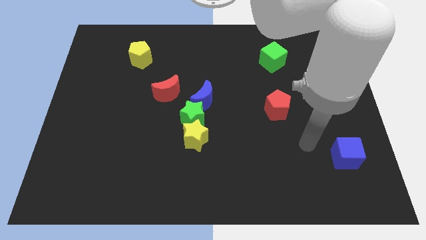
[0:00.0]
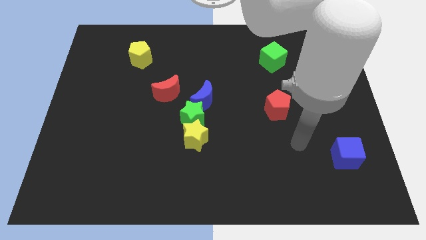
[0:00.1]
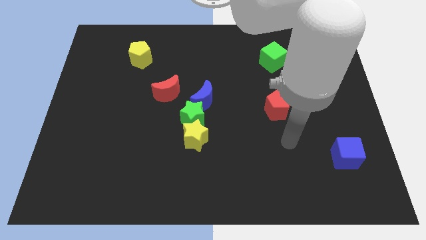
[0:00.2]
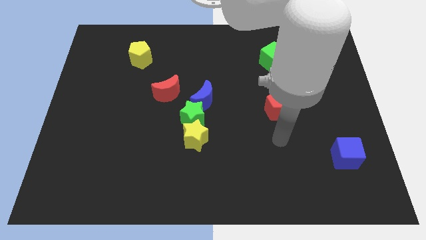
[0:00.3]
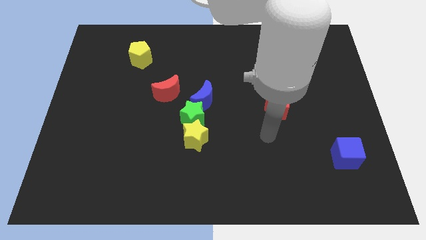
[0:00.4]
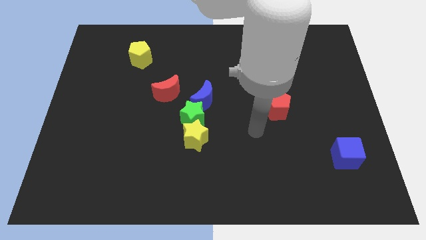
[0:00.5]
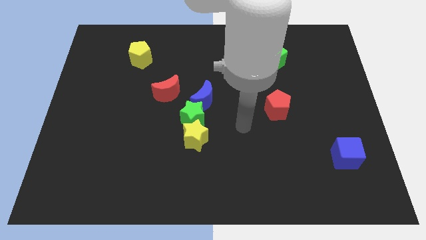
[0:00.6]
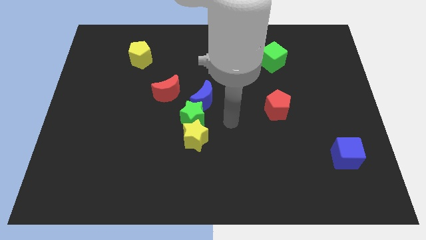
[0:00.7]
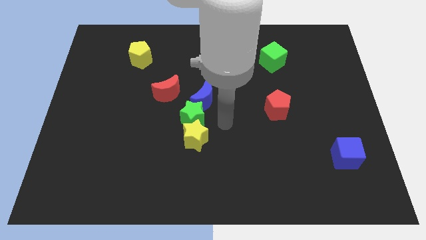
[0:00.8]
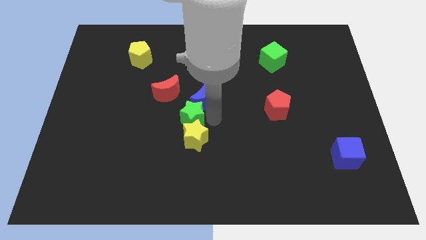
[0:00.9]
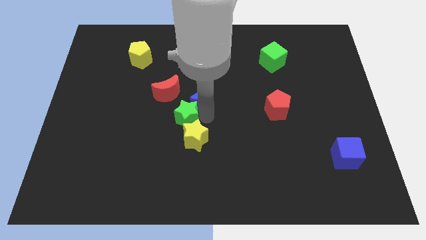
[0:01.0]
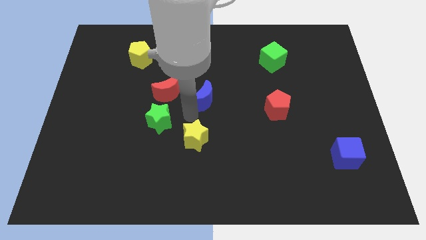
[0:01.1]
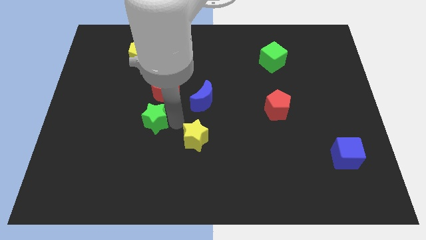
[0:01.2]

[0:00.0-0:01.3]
pull the yellow star apart from the green star

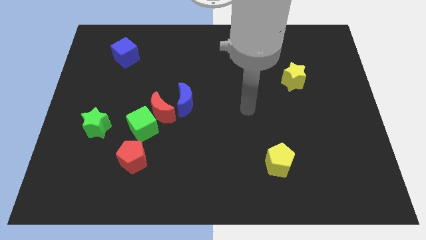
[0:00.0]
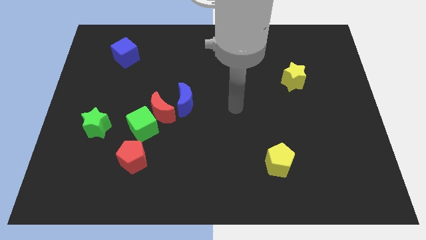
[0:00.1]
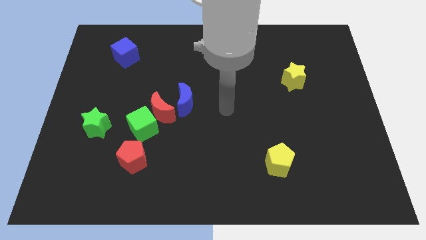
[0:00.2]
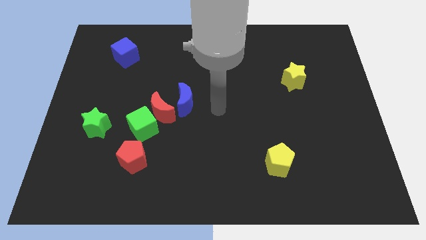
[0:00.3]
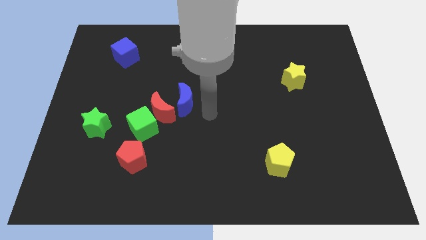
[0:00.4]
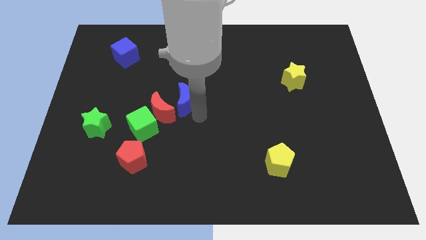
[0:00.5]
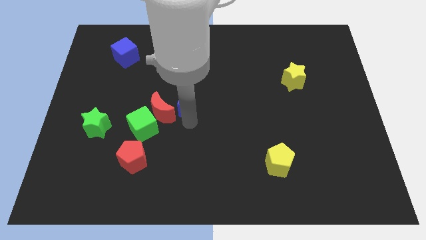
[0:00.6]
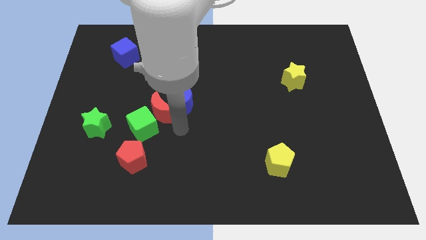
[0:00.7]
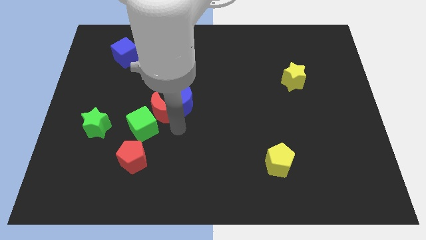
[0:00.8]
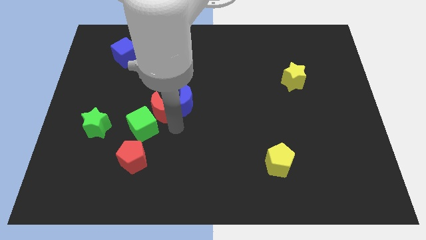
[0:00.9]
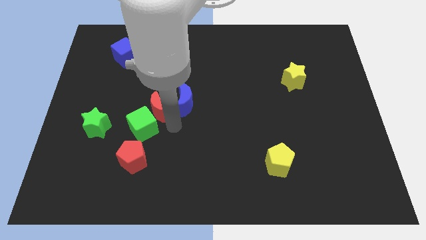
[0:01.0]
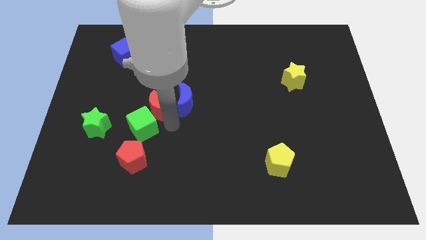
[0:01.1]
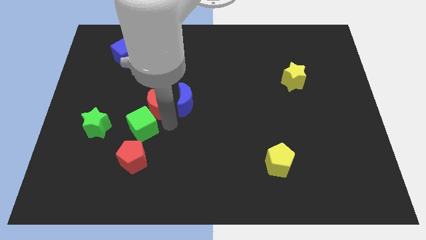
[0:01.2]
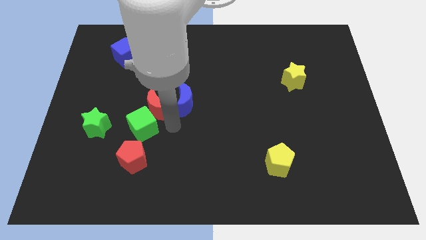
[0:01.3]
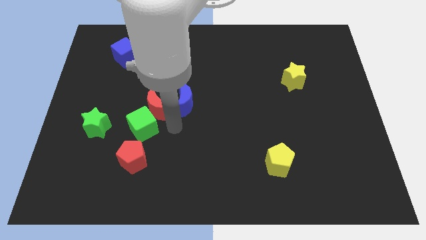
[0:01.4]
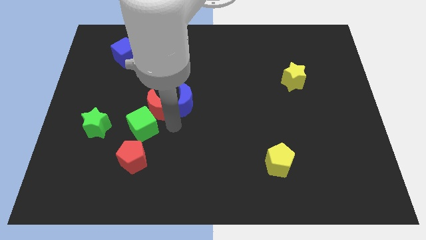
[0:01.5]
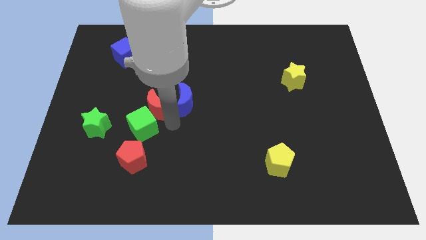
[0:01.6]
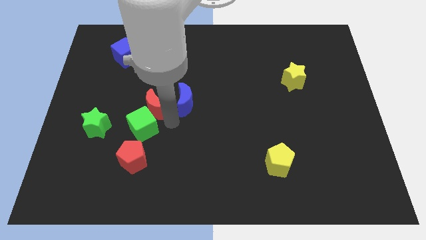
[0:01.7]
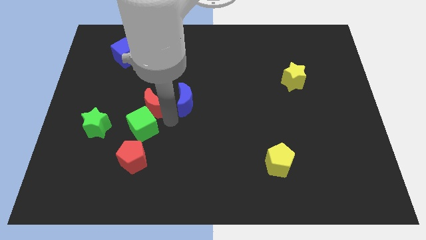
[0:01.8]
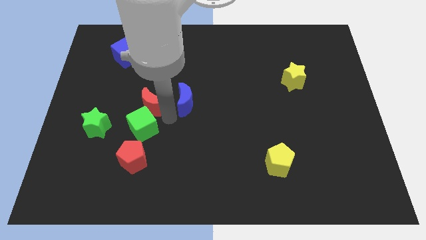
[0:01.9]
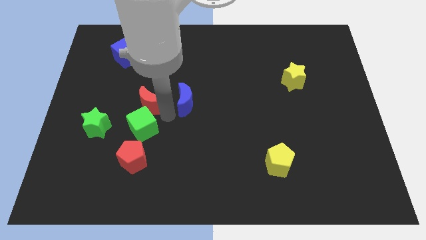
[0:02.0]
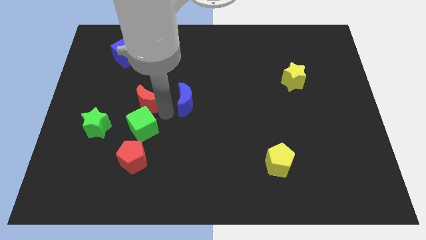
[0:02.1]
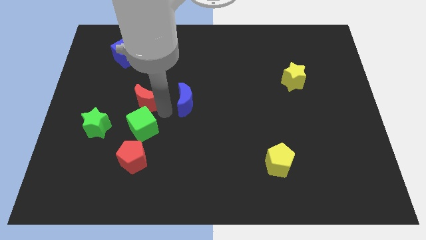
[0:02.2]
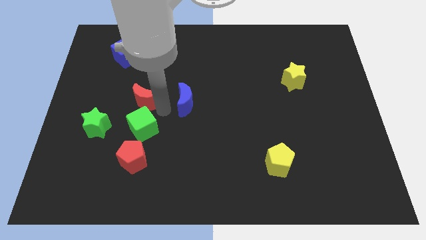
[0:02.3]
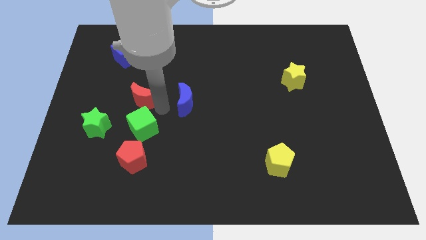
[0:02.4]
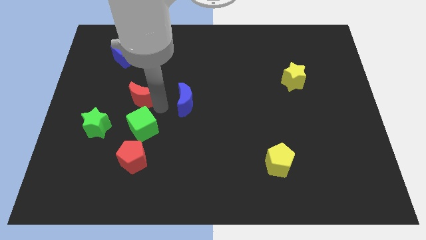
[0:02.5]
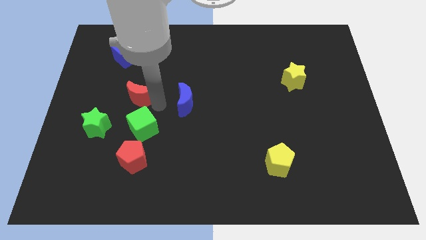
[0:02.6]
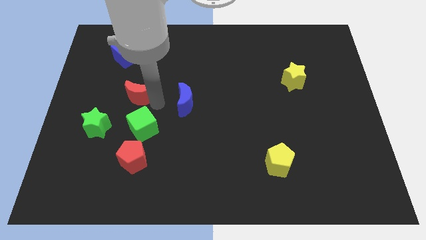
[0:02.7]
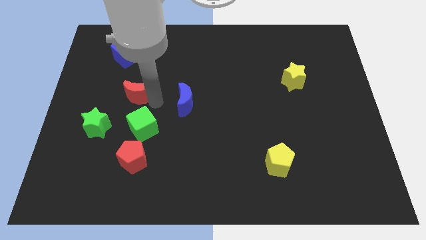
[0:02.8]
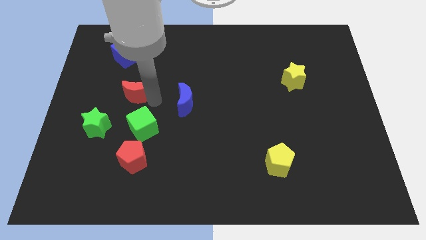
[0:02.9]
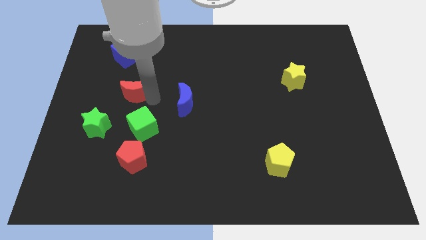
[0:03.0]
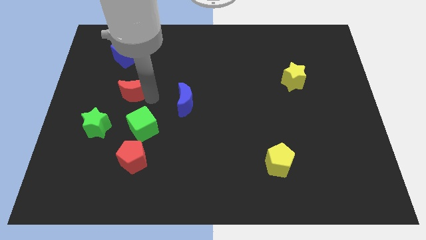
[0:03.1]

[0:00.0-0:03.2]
move the red moon away from the green cube and blue moon

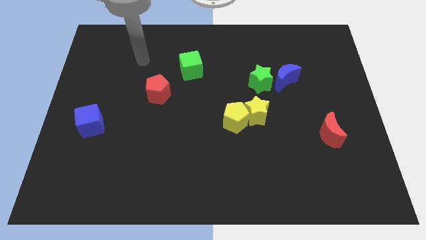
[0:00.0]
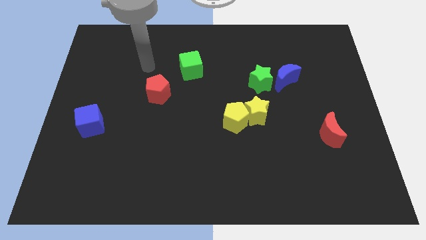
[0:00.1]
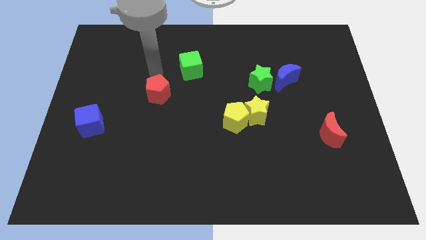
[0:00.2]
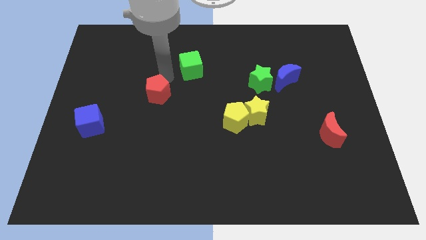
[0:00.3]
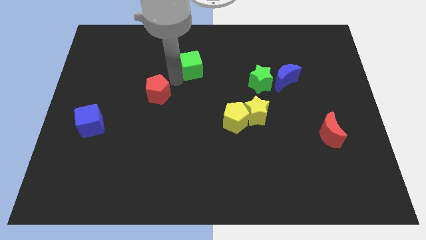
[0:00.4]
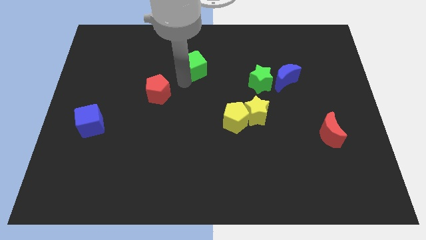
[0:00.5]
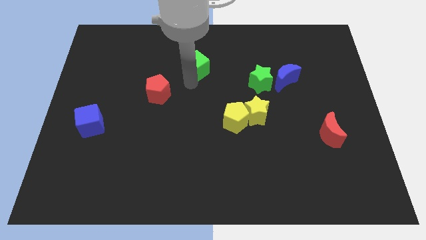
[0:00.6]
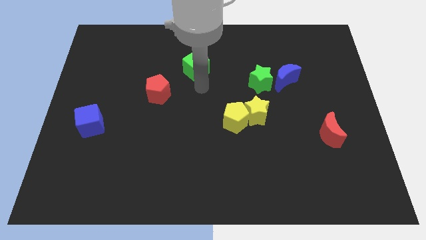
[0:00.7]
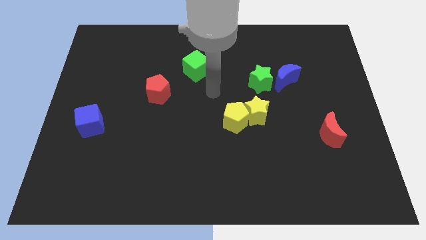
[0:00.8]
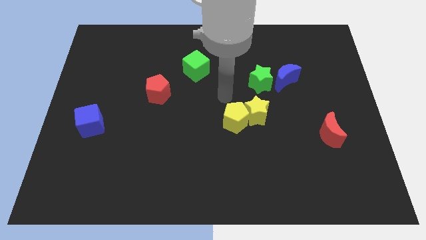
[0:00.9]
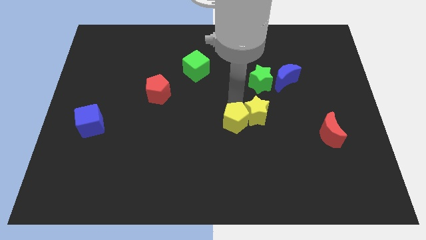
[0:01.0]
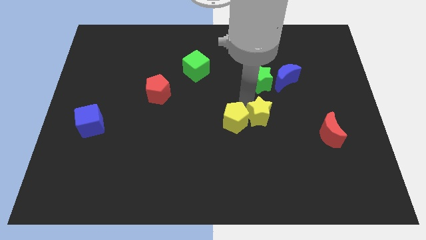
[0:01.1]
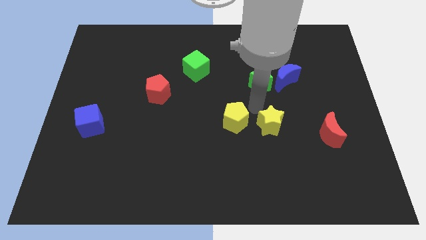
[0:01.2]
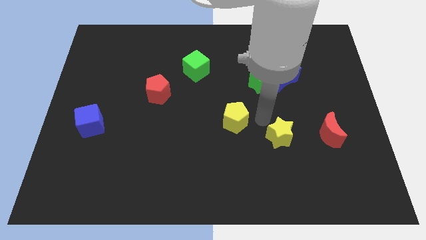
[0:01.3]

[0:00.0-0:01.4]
move the yellow pentagon away from the yellow star

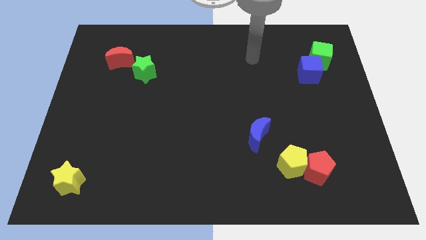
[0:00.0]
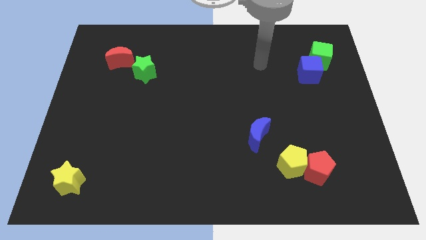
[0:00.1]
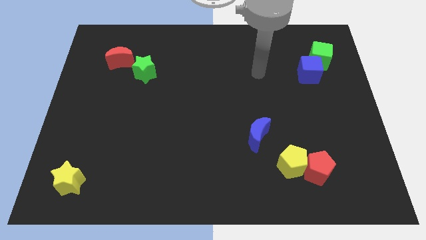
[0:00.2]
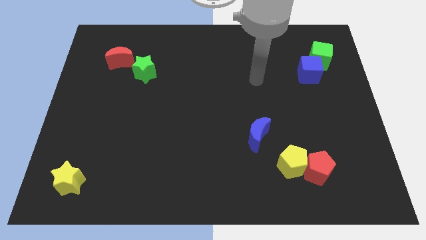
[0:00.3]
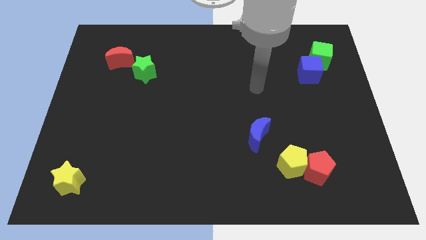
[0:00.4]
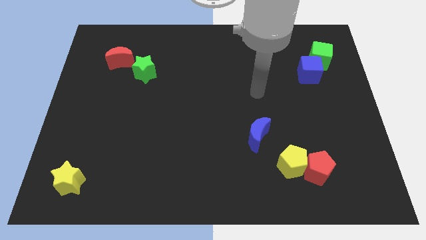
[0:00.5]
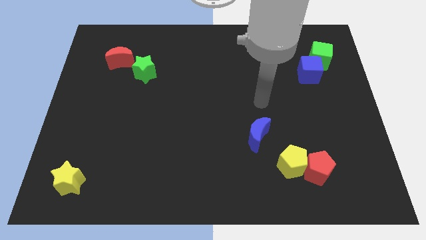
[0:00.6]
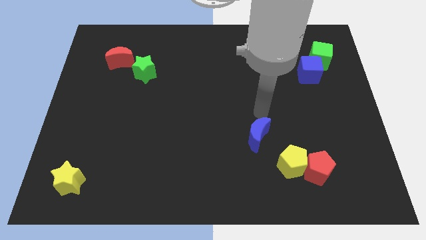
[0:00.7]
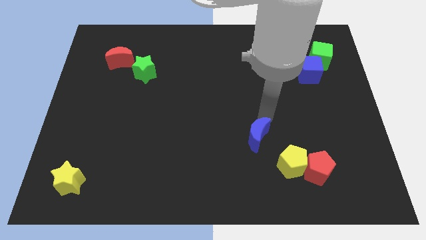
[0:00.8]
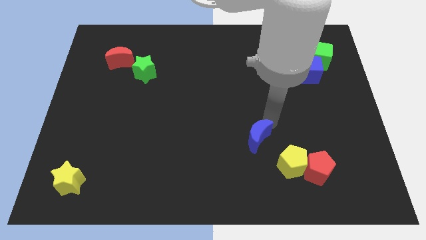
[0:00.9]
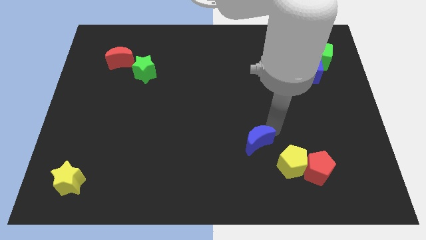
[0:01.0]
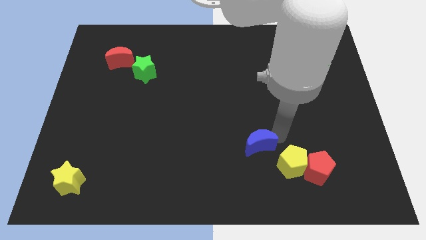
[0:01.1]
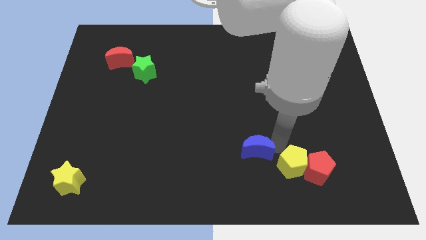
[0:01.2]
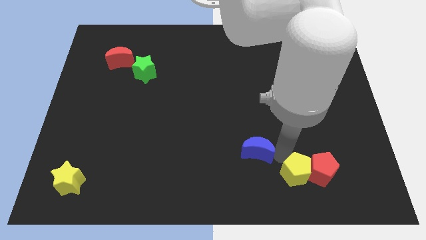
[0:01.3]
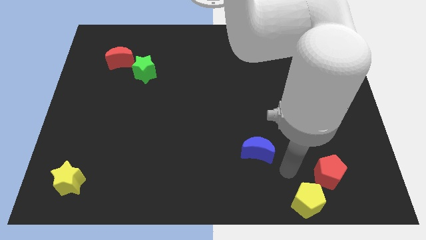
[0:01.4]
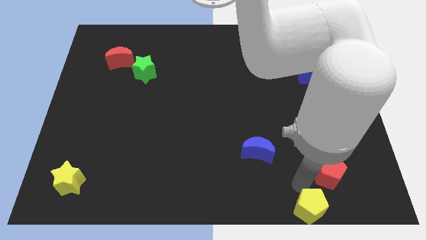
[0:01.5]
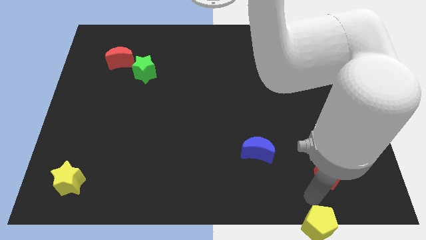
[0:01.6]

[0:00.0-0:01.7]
pull the red pentagon apart from the yellow pentagon

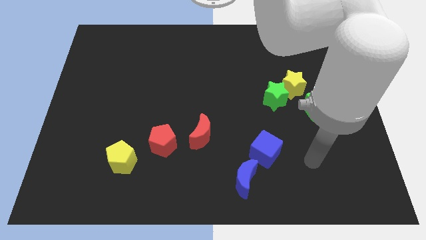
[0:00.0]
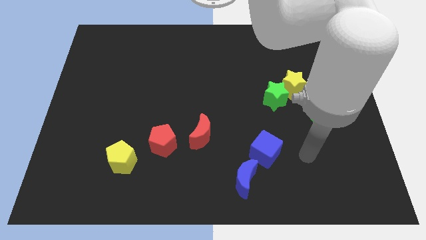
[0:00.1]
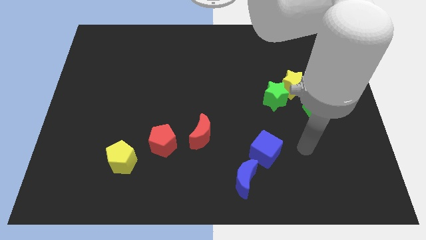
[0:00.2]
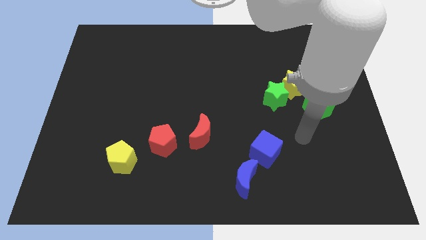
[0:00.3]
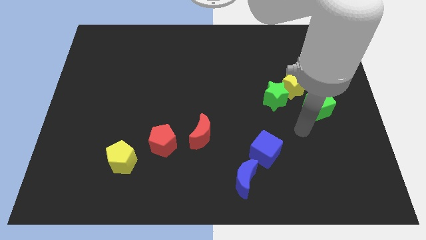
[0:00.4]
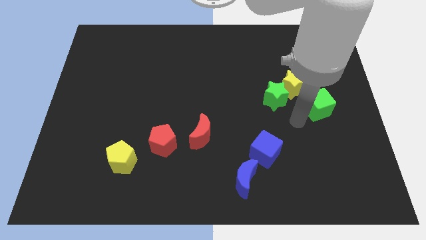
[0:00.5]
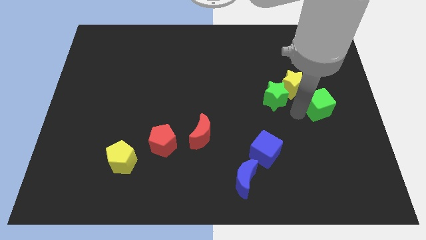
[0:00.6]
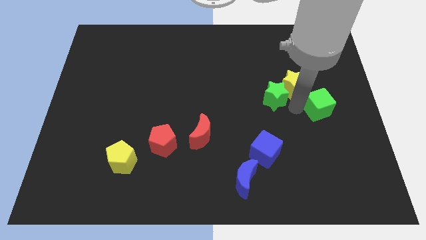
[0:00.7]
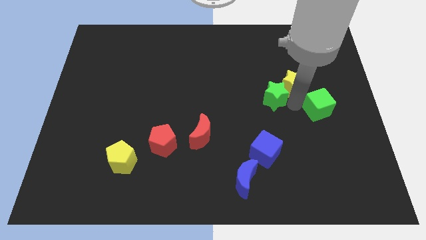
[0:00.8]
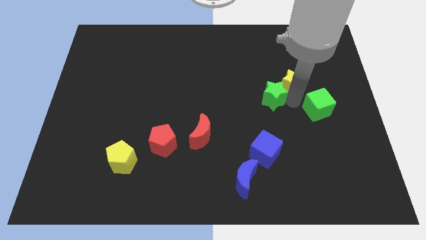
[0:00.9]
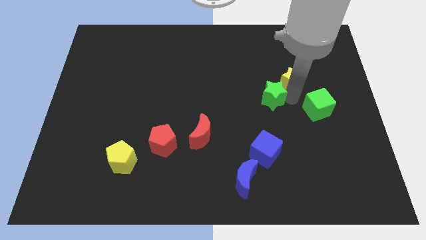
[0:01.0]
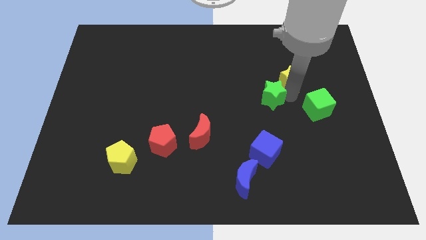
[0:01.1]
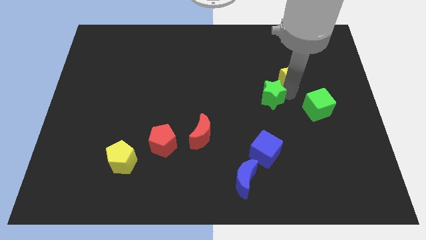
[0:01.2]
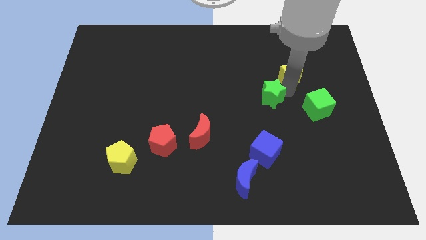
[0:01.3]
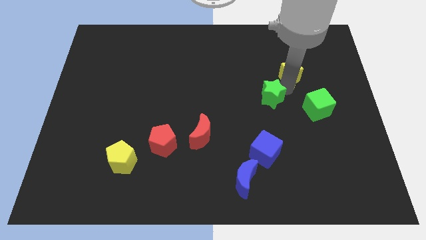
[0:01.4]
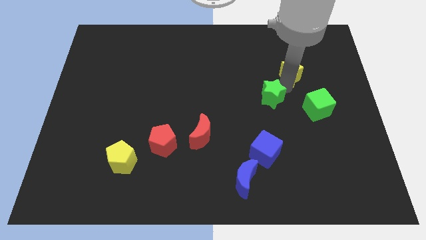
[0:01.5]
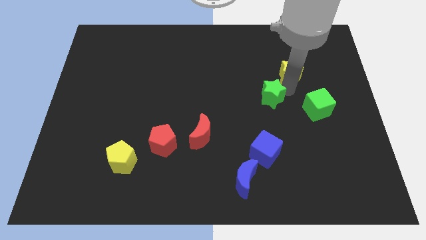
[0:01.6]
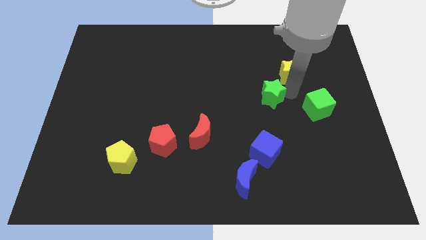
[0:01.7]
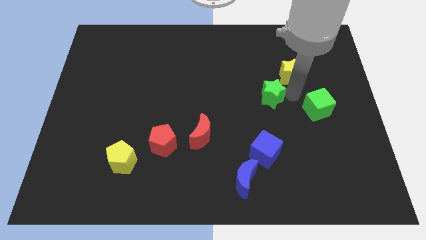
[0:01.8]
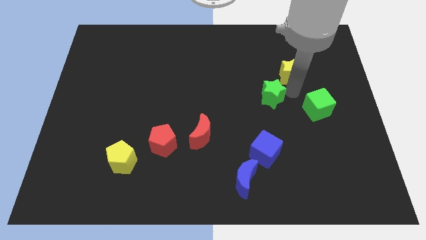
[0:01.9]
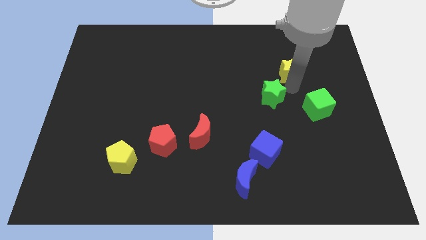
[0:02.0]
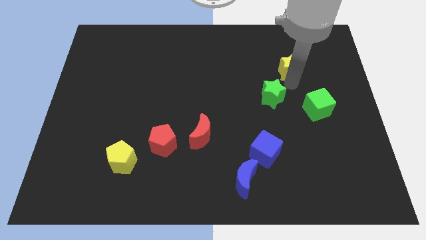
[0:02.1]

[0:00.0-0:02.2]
pull the yellow star apart from the green star and green cube
